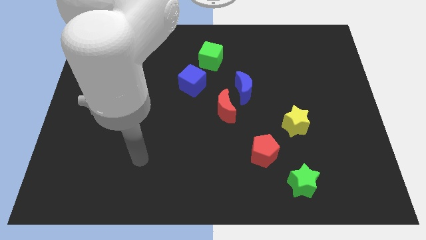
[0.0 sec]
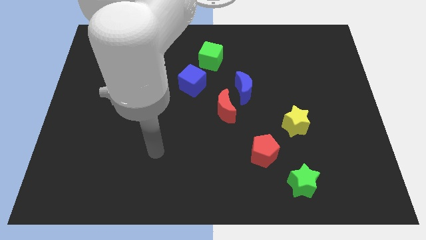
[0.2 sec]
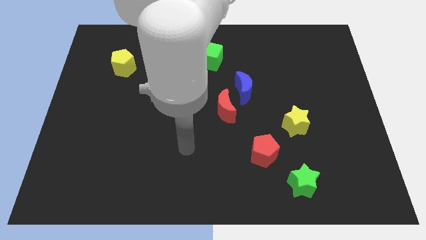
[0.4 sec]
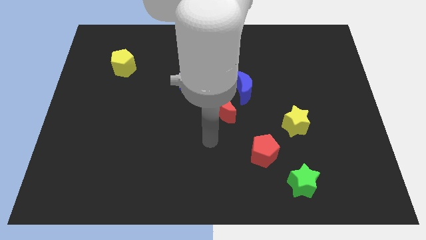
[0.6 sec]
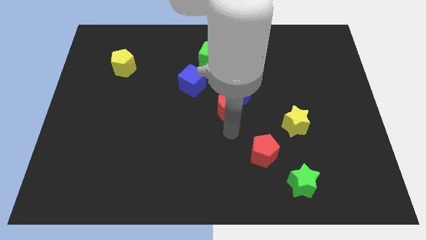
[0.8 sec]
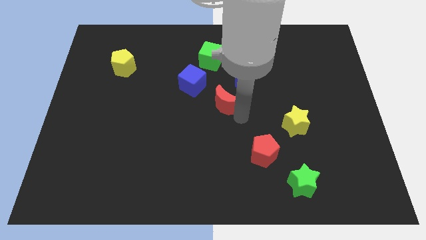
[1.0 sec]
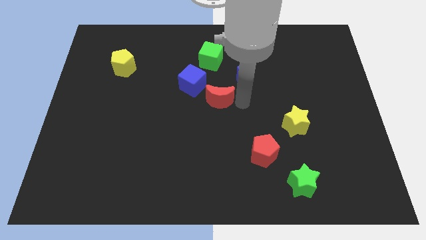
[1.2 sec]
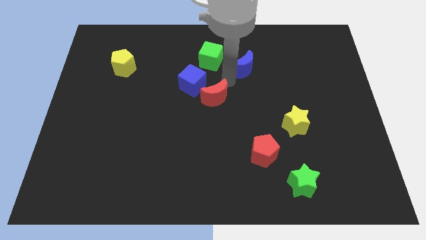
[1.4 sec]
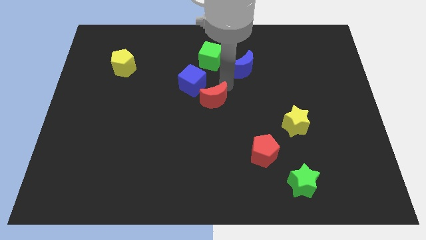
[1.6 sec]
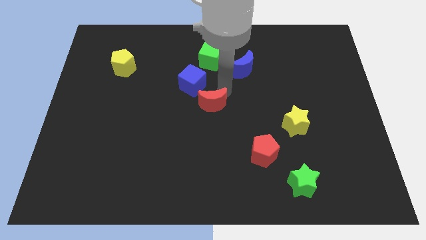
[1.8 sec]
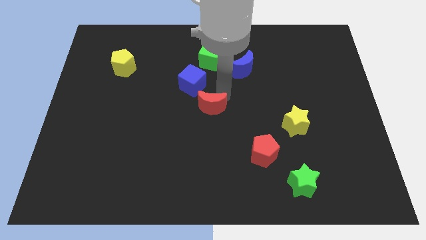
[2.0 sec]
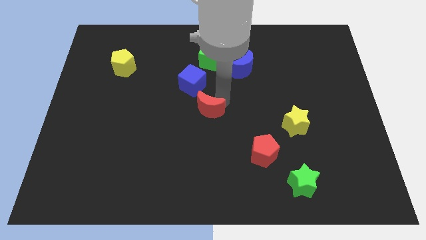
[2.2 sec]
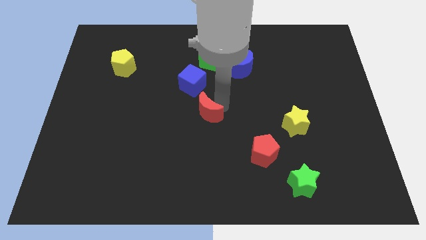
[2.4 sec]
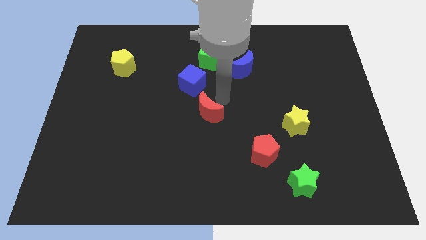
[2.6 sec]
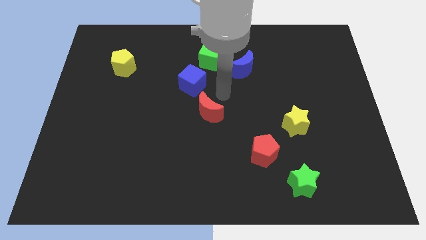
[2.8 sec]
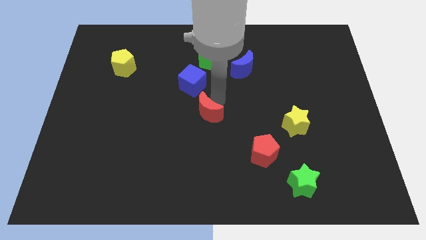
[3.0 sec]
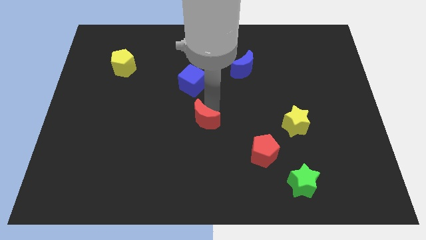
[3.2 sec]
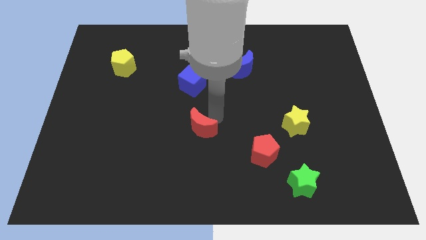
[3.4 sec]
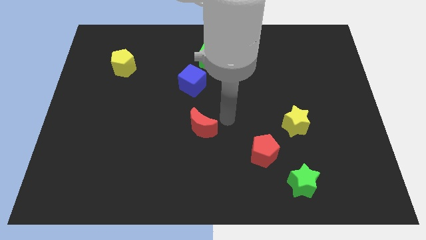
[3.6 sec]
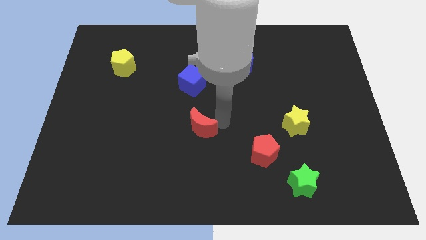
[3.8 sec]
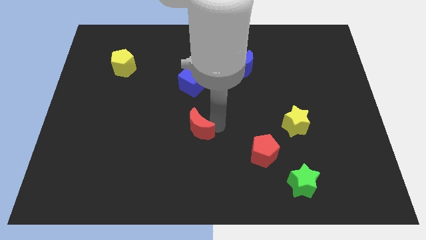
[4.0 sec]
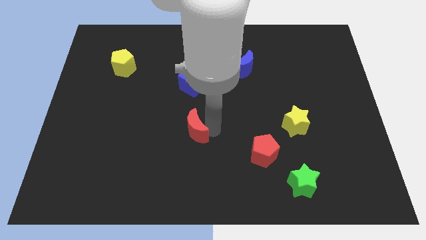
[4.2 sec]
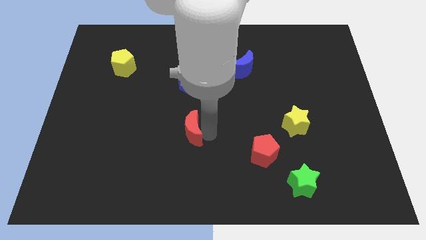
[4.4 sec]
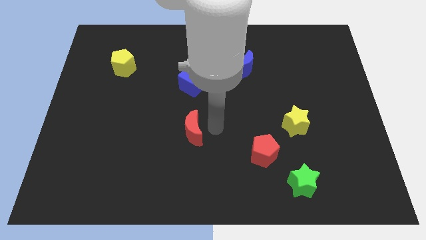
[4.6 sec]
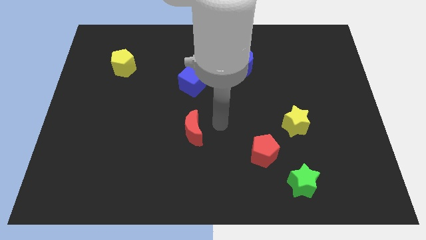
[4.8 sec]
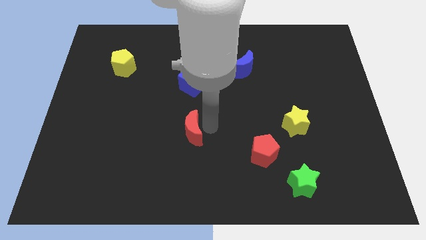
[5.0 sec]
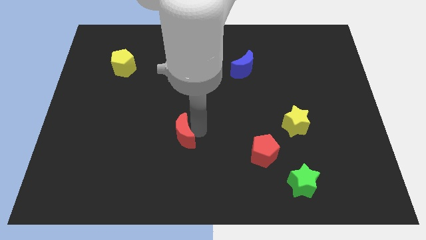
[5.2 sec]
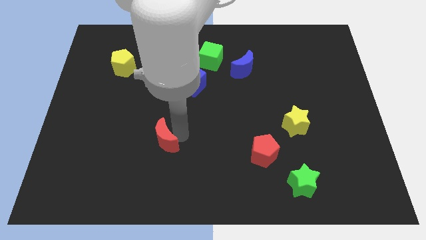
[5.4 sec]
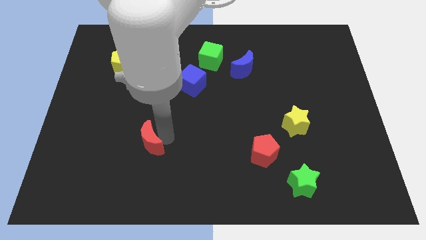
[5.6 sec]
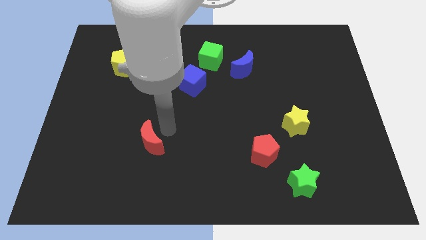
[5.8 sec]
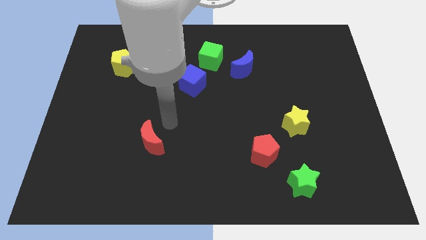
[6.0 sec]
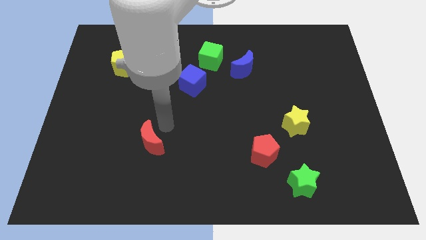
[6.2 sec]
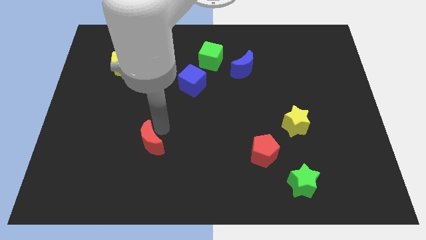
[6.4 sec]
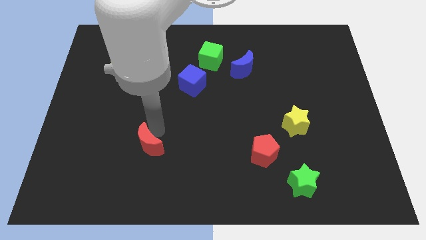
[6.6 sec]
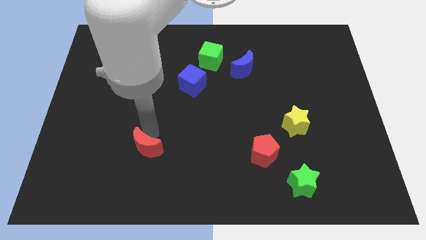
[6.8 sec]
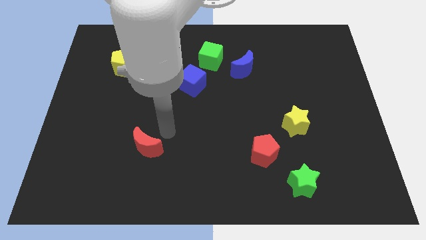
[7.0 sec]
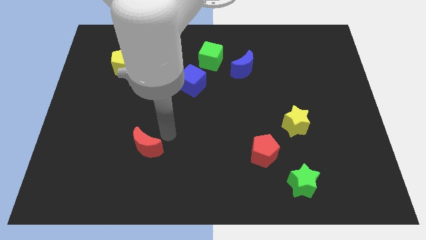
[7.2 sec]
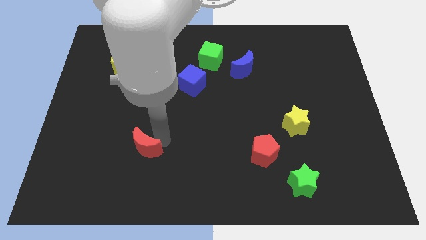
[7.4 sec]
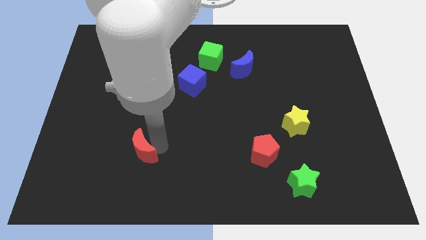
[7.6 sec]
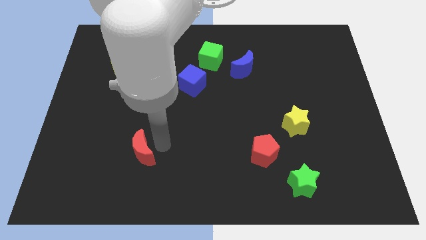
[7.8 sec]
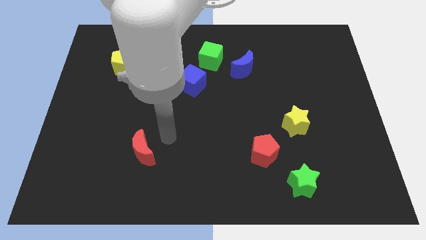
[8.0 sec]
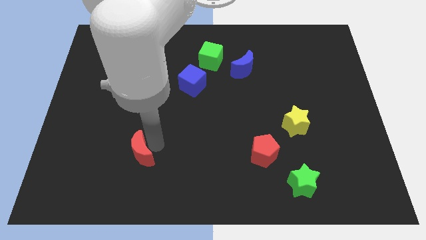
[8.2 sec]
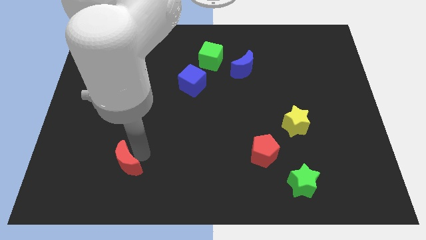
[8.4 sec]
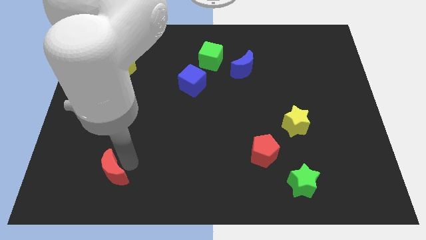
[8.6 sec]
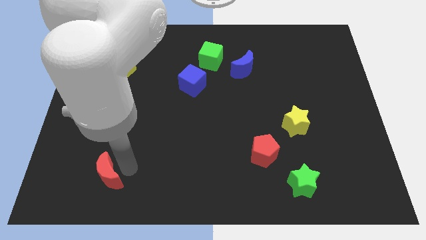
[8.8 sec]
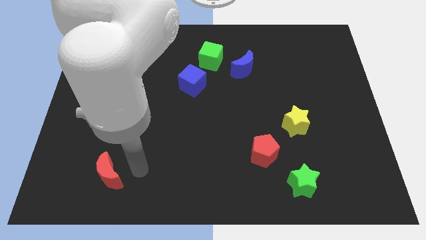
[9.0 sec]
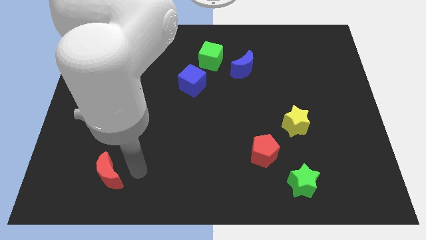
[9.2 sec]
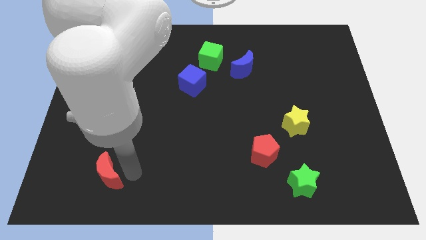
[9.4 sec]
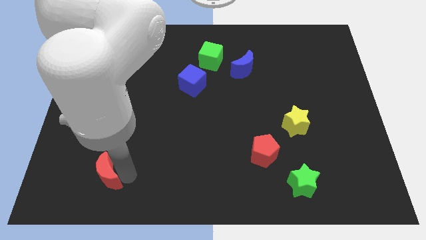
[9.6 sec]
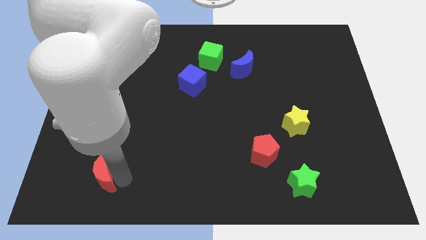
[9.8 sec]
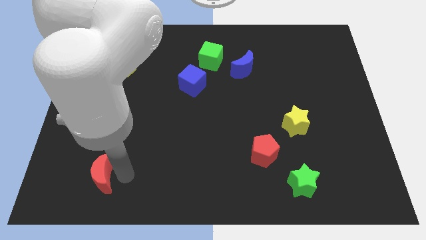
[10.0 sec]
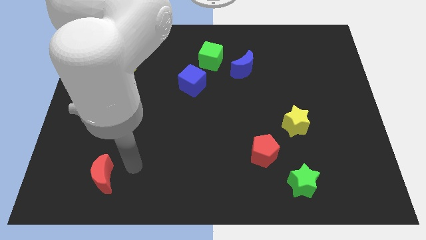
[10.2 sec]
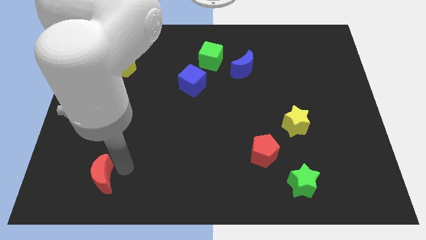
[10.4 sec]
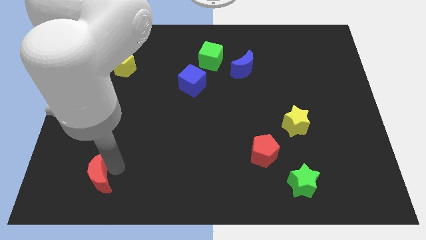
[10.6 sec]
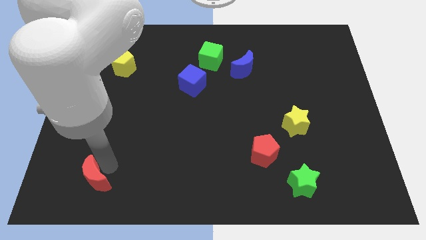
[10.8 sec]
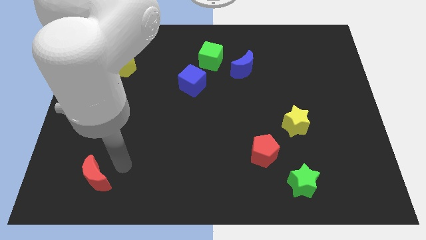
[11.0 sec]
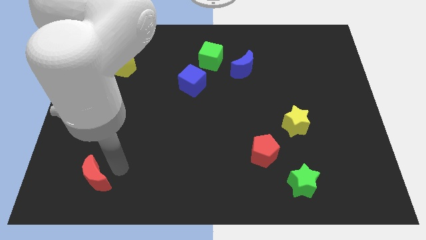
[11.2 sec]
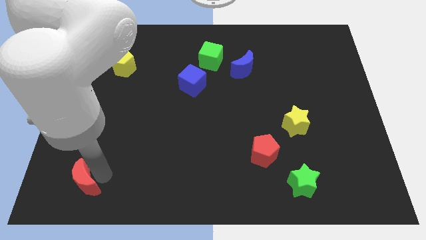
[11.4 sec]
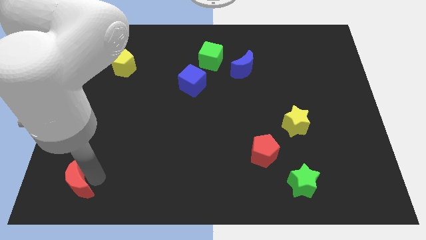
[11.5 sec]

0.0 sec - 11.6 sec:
put the red moon to the bottom left corner

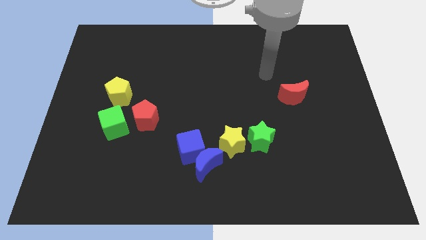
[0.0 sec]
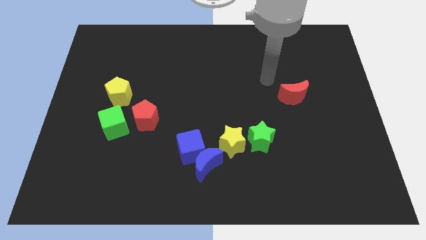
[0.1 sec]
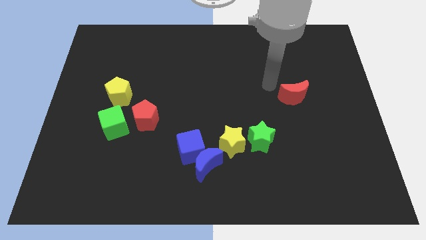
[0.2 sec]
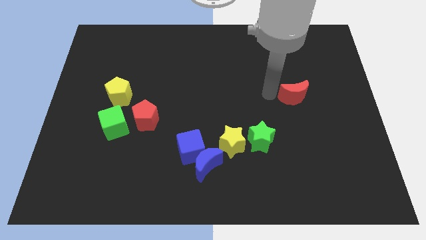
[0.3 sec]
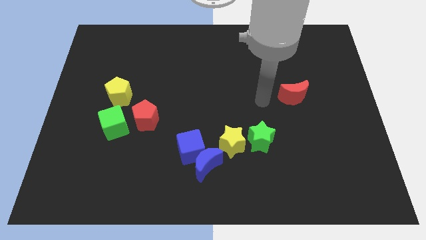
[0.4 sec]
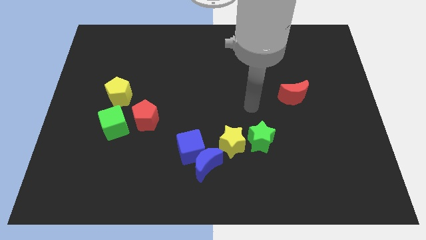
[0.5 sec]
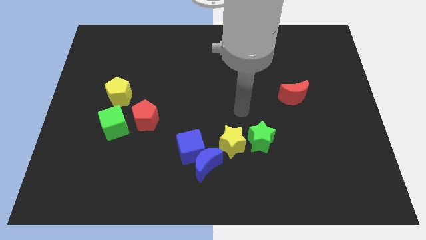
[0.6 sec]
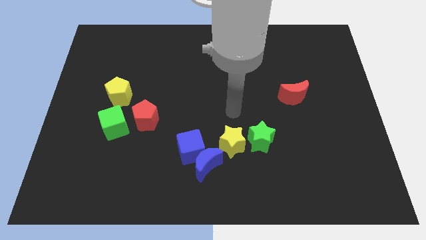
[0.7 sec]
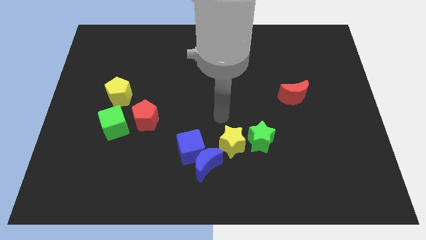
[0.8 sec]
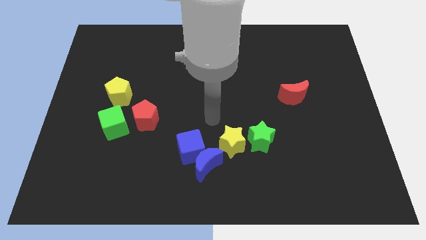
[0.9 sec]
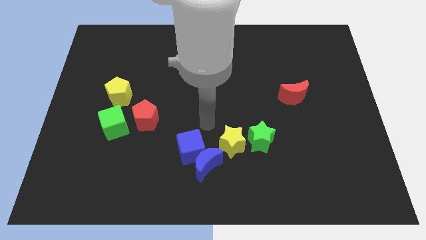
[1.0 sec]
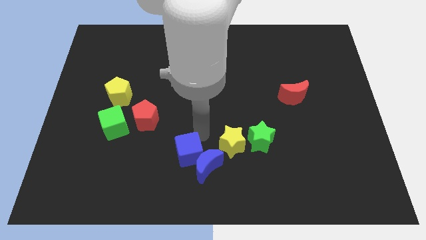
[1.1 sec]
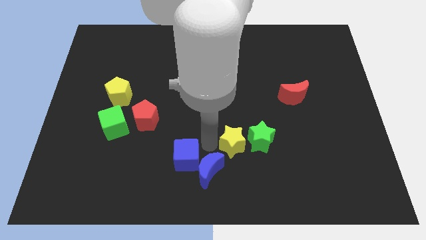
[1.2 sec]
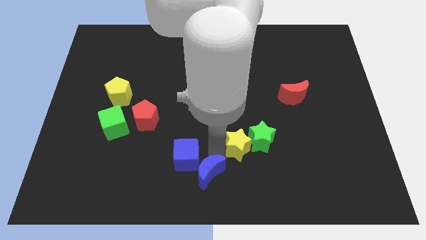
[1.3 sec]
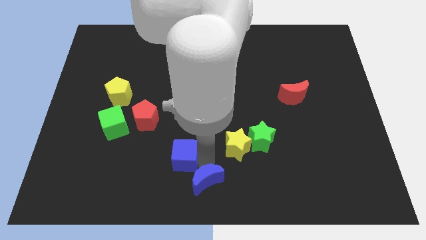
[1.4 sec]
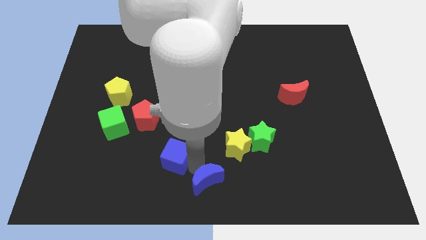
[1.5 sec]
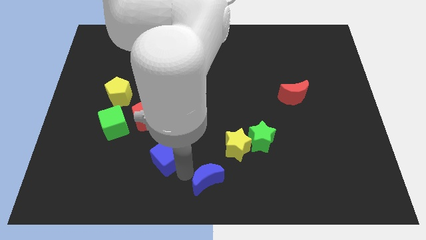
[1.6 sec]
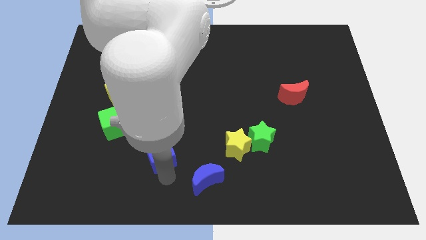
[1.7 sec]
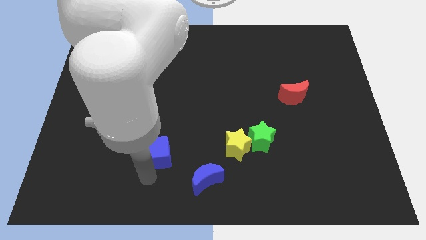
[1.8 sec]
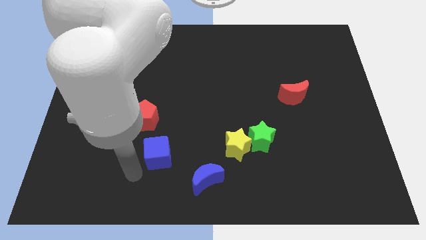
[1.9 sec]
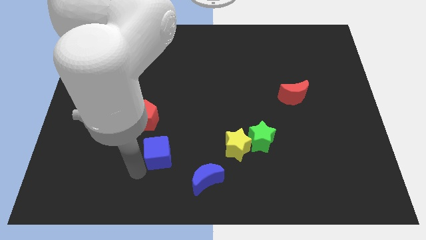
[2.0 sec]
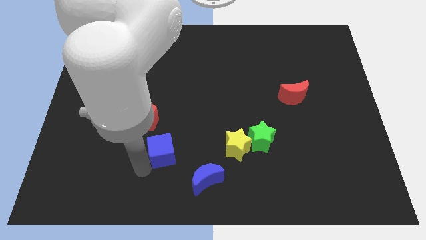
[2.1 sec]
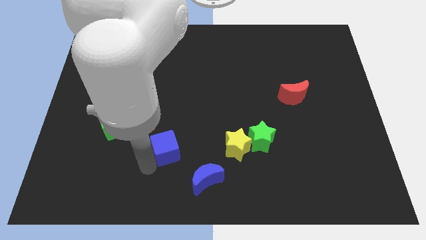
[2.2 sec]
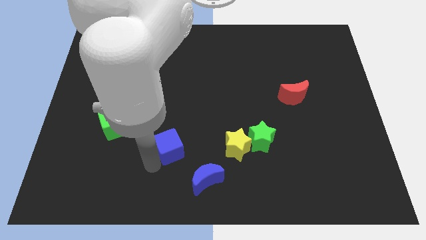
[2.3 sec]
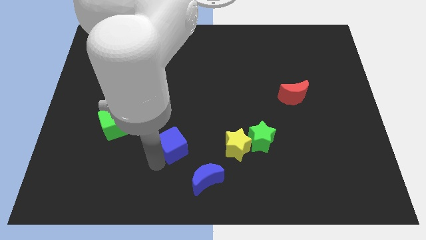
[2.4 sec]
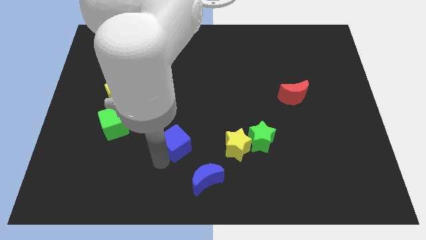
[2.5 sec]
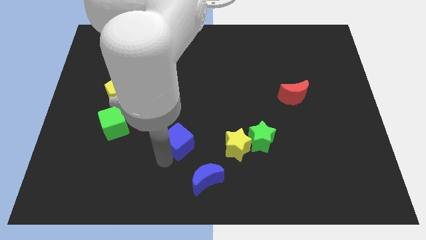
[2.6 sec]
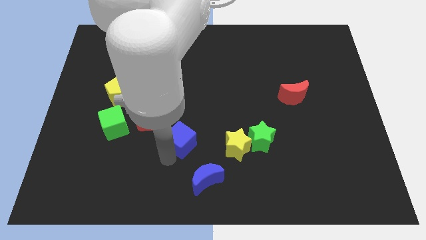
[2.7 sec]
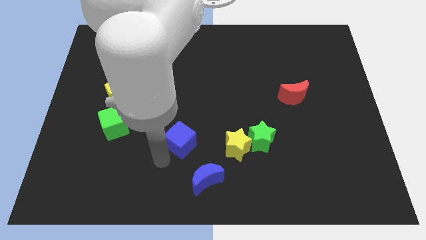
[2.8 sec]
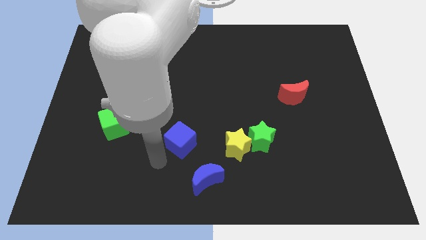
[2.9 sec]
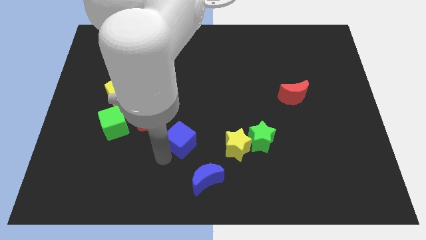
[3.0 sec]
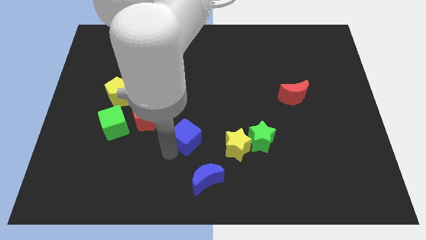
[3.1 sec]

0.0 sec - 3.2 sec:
slide the blue cube to the center of the board
